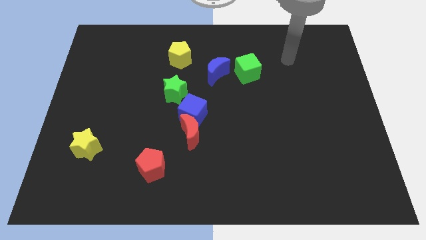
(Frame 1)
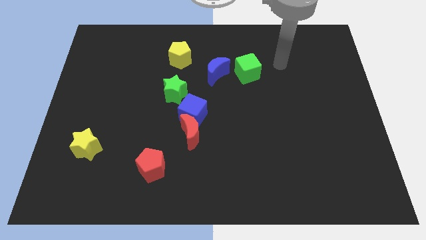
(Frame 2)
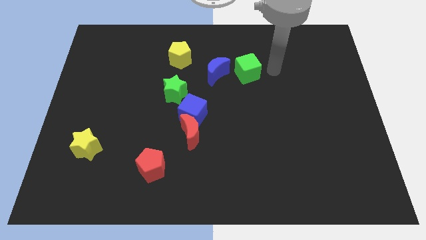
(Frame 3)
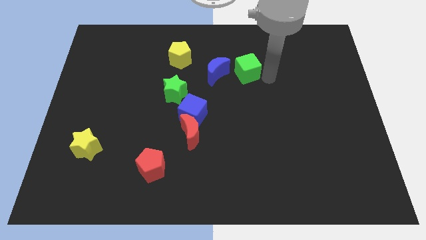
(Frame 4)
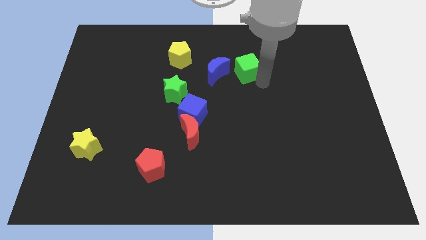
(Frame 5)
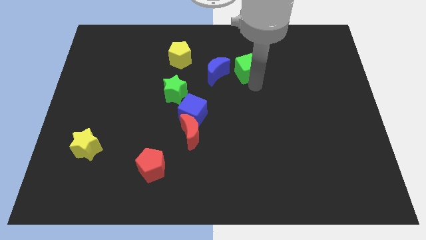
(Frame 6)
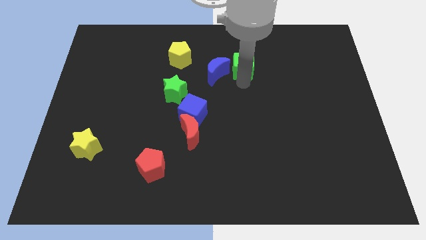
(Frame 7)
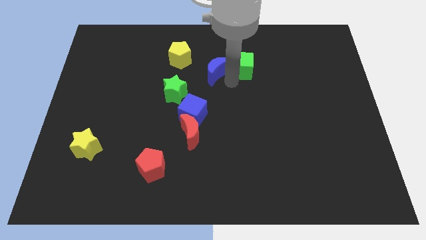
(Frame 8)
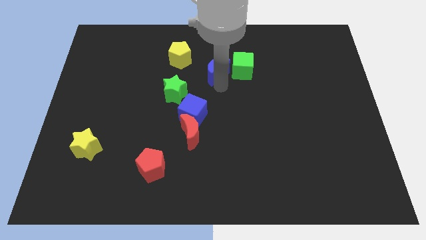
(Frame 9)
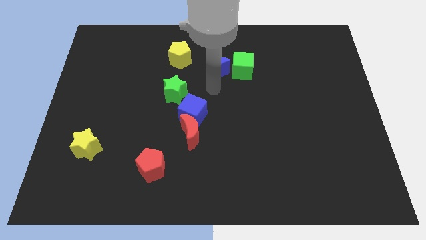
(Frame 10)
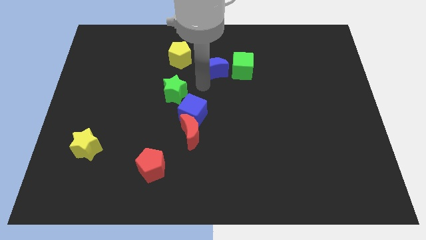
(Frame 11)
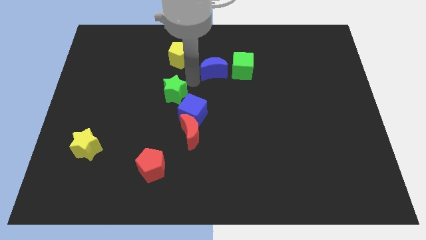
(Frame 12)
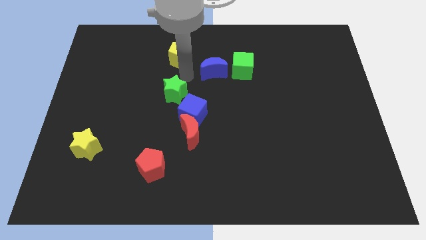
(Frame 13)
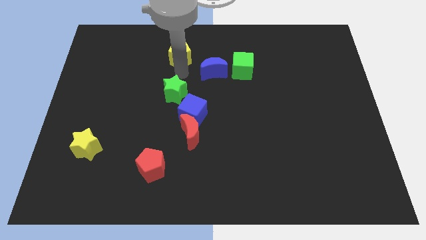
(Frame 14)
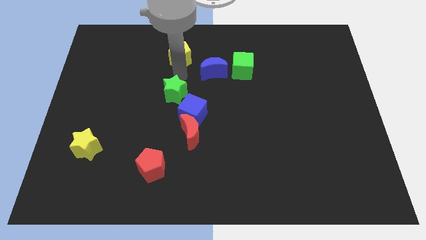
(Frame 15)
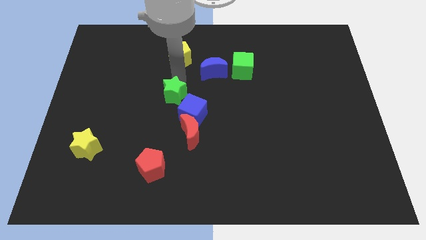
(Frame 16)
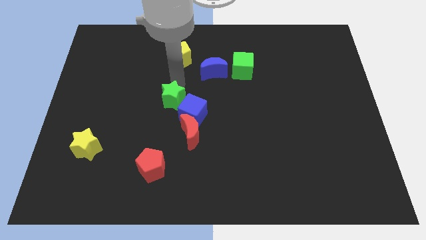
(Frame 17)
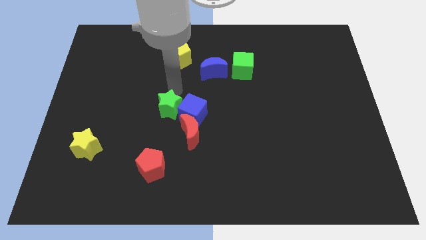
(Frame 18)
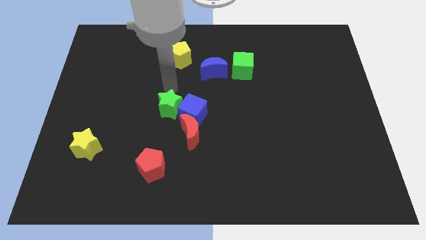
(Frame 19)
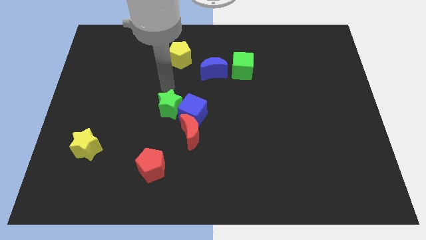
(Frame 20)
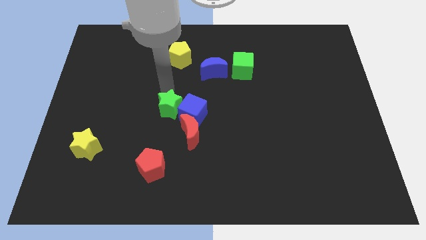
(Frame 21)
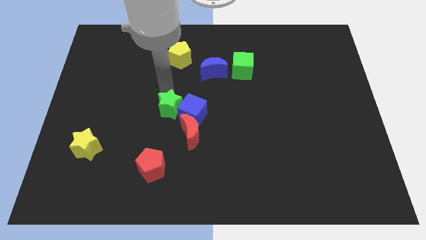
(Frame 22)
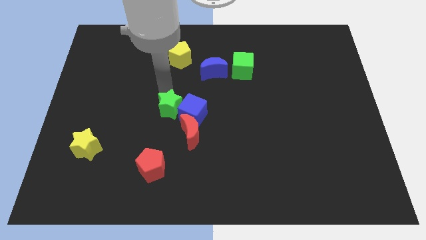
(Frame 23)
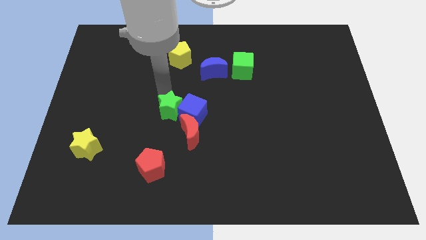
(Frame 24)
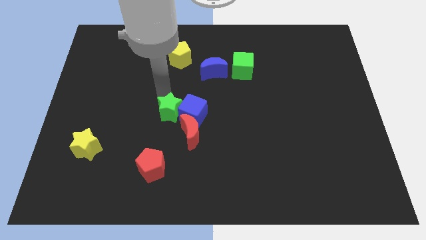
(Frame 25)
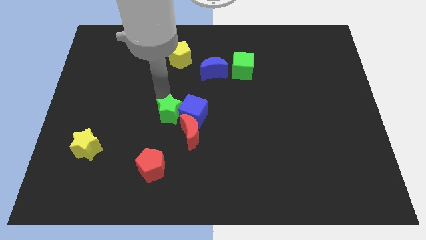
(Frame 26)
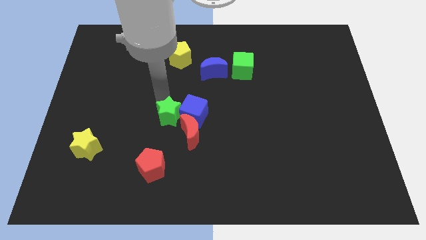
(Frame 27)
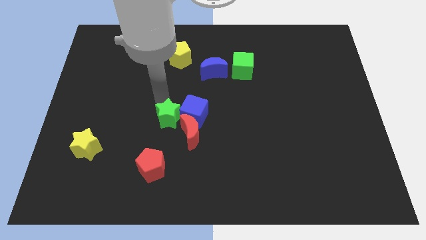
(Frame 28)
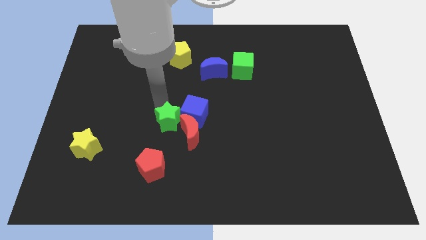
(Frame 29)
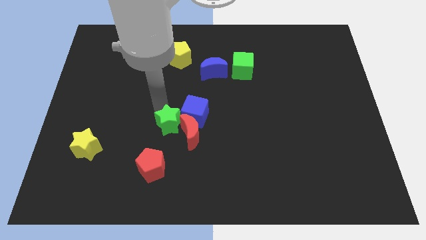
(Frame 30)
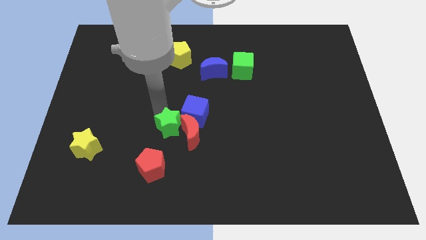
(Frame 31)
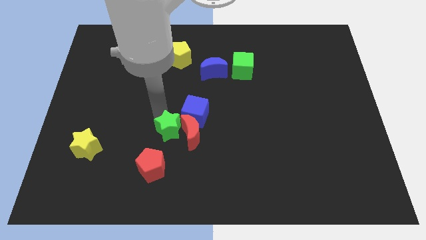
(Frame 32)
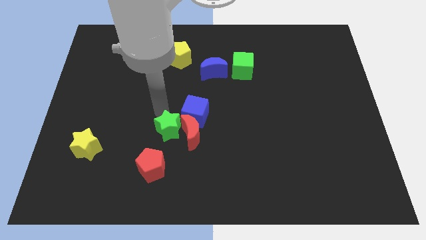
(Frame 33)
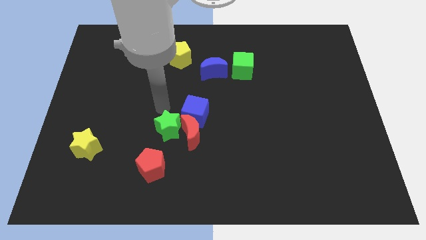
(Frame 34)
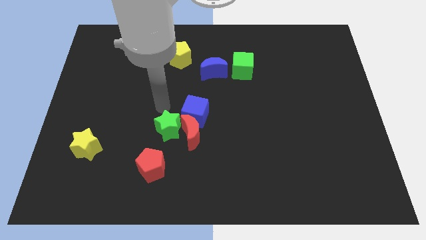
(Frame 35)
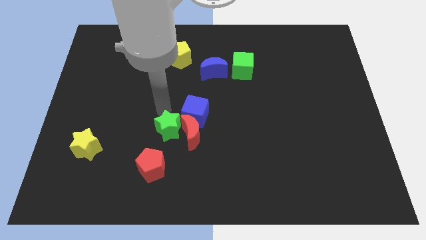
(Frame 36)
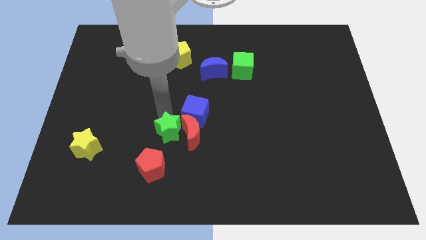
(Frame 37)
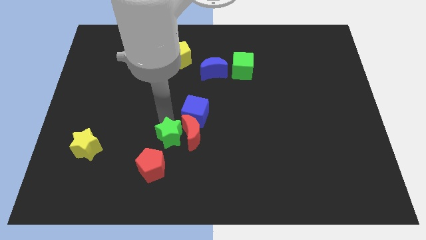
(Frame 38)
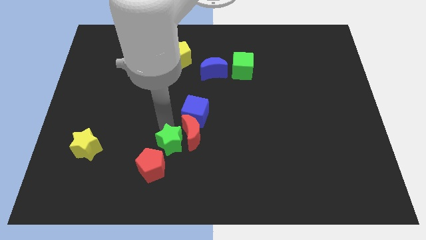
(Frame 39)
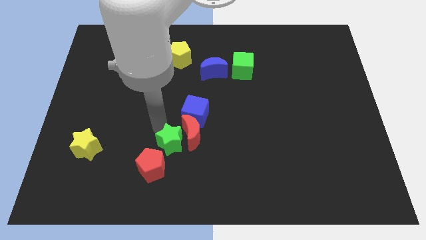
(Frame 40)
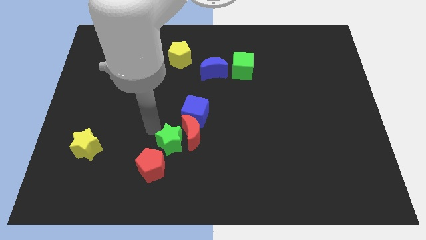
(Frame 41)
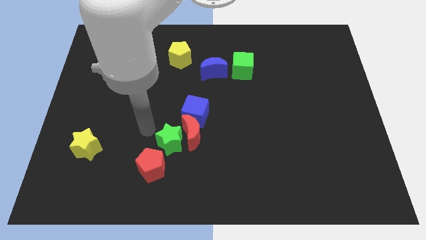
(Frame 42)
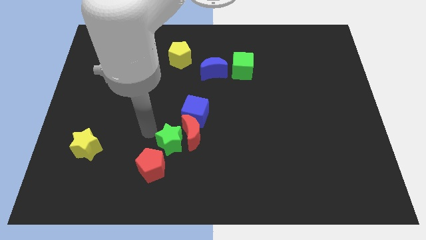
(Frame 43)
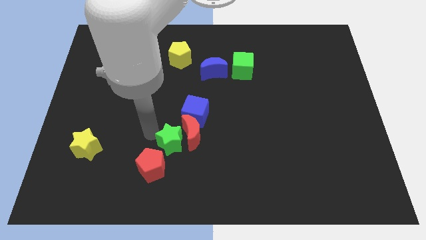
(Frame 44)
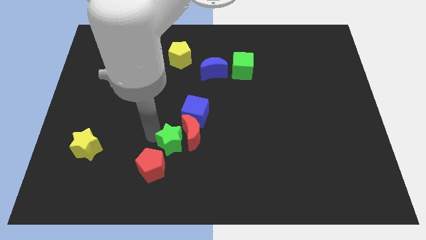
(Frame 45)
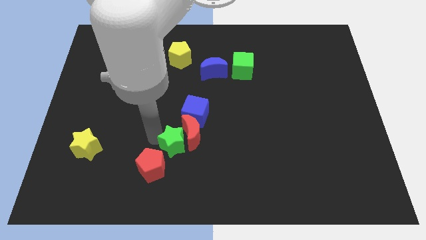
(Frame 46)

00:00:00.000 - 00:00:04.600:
push the green star below the blue cube

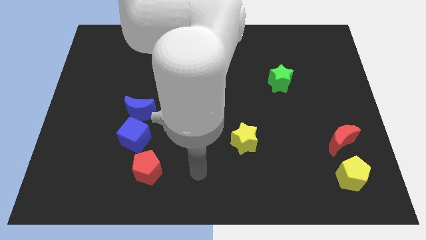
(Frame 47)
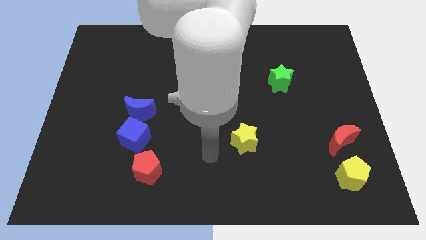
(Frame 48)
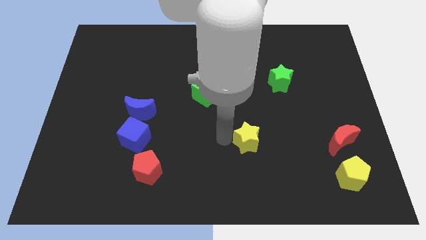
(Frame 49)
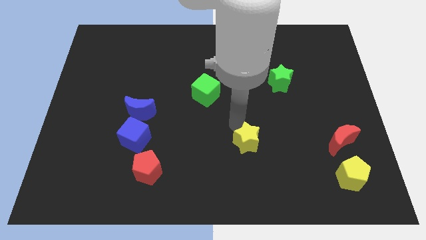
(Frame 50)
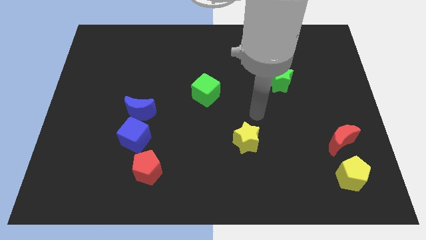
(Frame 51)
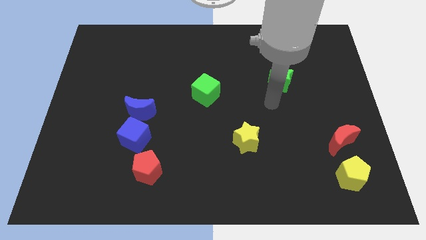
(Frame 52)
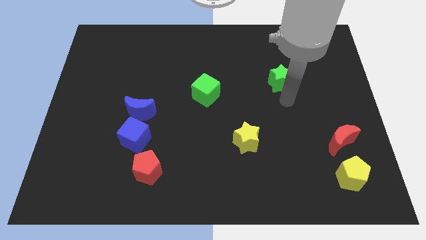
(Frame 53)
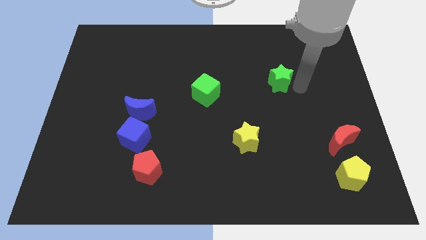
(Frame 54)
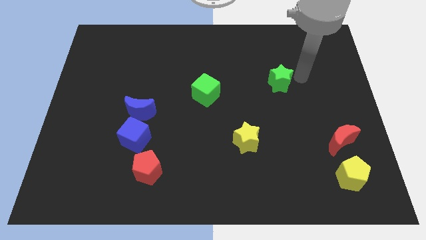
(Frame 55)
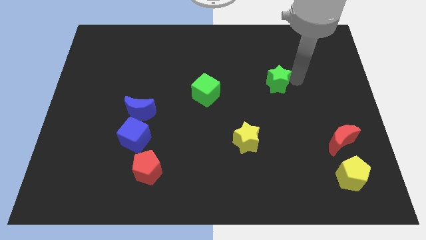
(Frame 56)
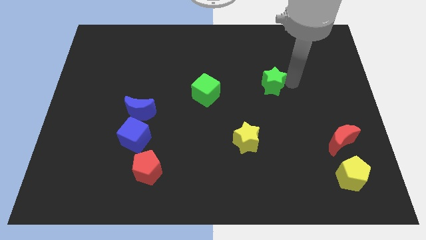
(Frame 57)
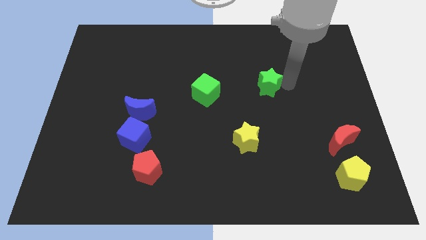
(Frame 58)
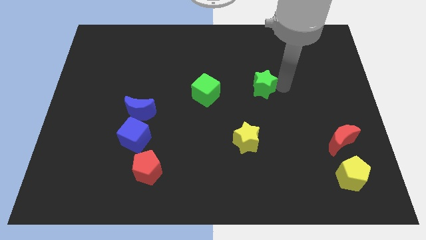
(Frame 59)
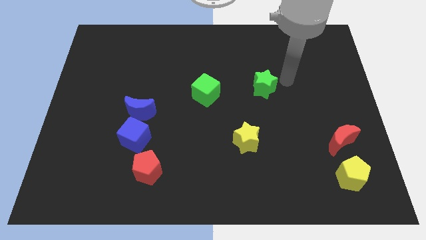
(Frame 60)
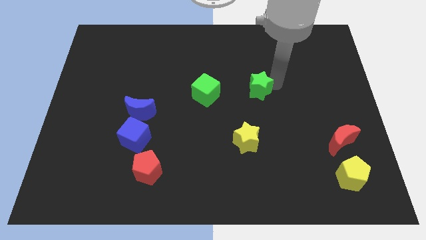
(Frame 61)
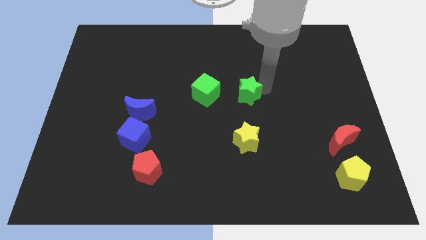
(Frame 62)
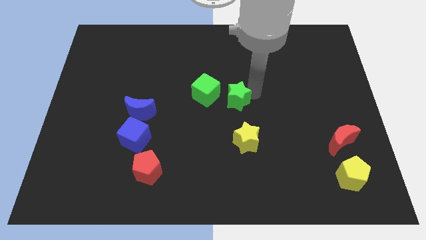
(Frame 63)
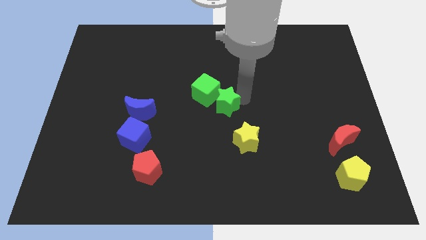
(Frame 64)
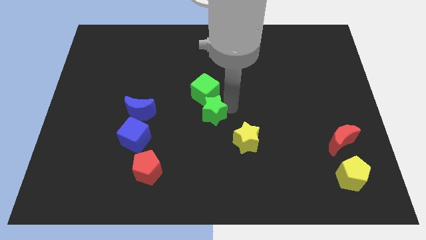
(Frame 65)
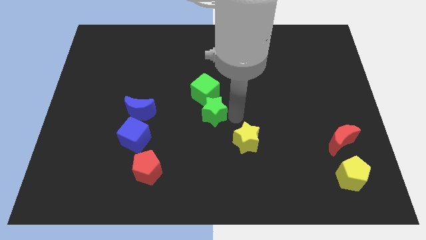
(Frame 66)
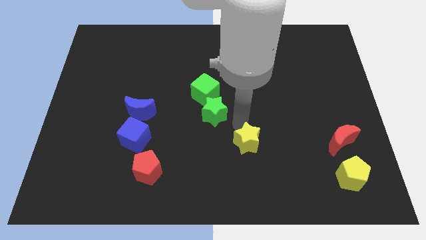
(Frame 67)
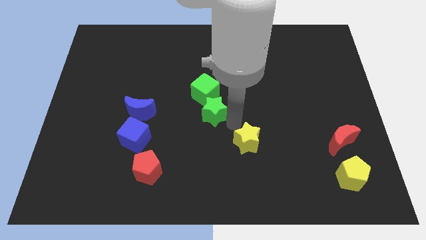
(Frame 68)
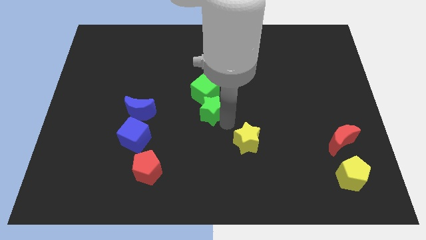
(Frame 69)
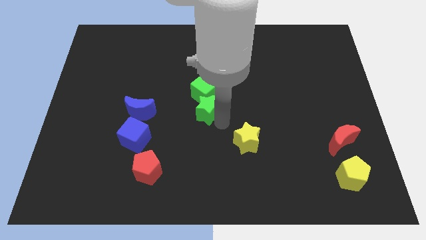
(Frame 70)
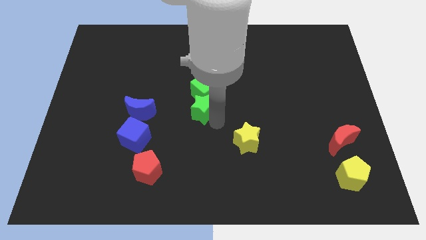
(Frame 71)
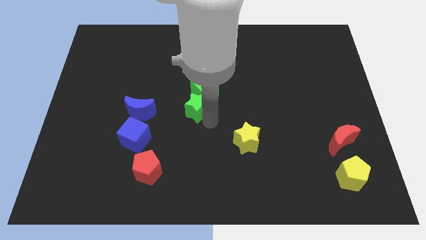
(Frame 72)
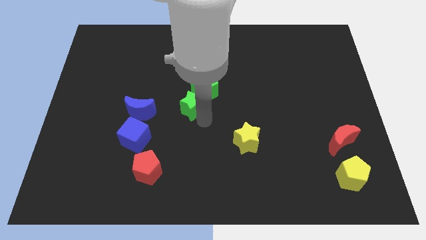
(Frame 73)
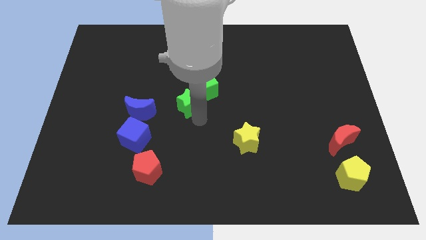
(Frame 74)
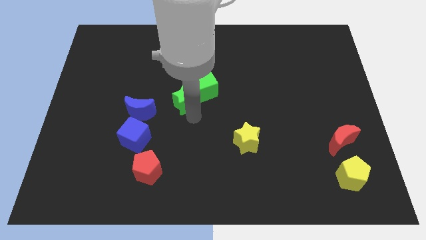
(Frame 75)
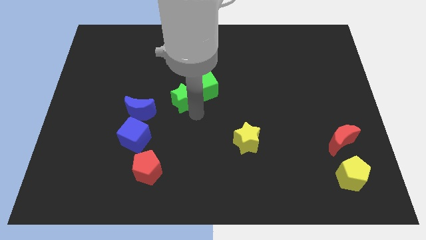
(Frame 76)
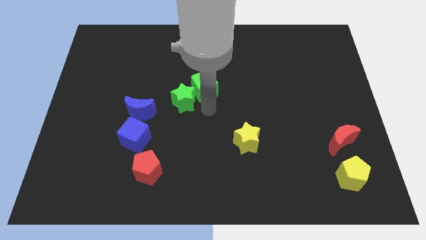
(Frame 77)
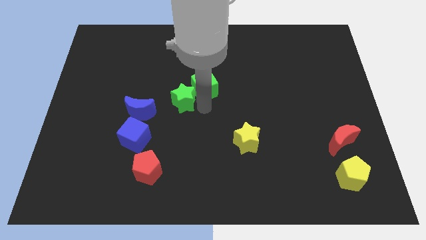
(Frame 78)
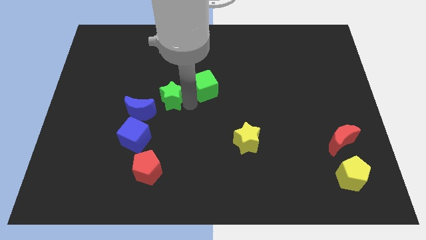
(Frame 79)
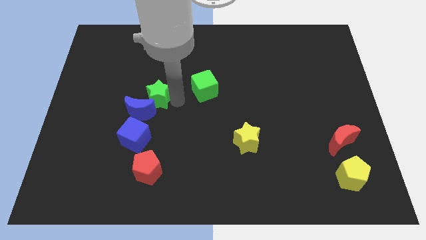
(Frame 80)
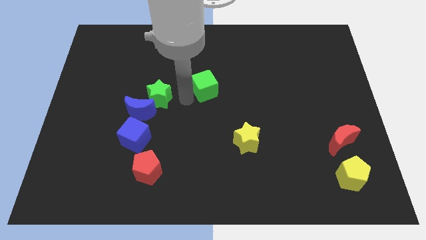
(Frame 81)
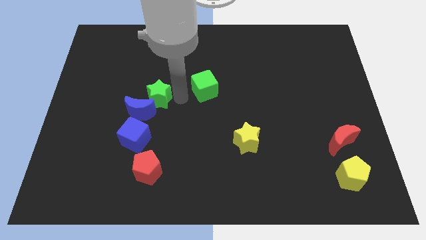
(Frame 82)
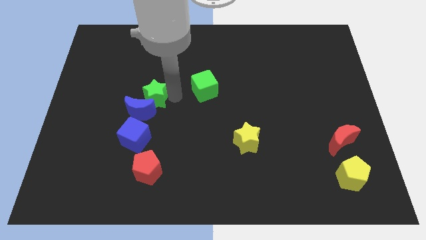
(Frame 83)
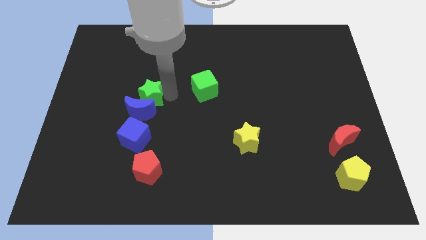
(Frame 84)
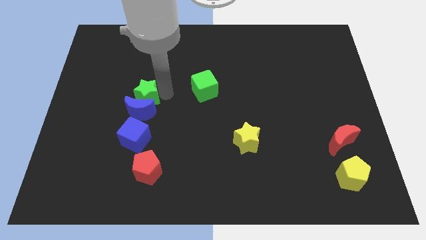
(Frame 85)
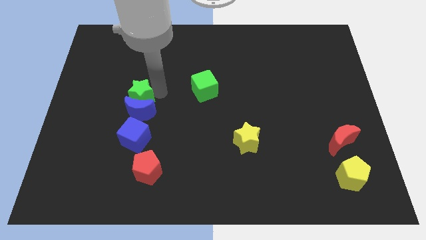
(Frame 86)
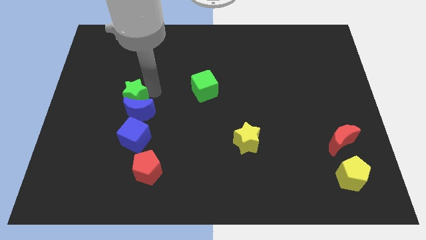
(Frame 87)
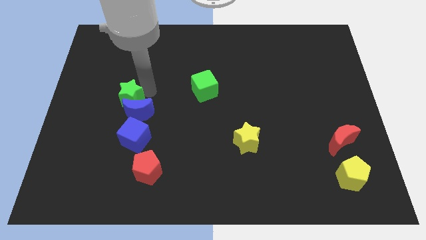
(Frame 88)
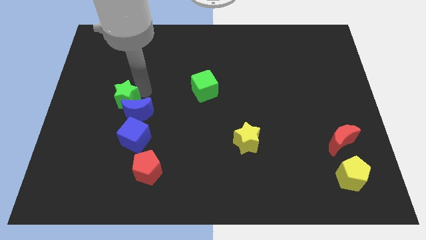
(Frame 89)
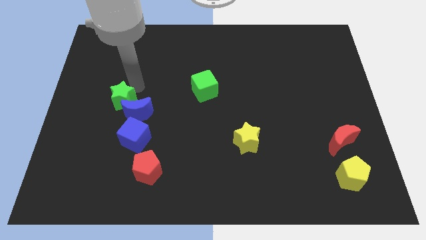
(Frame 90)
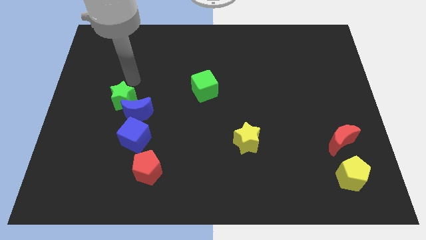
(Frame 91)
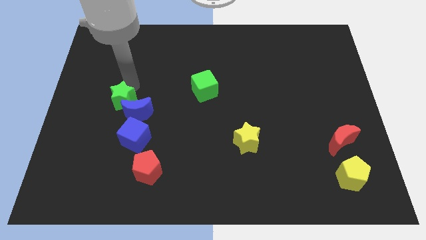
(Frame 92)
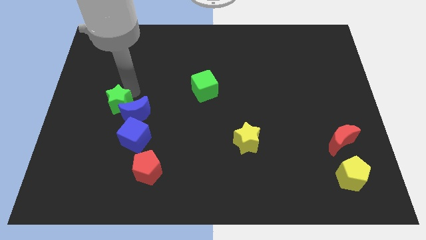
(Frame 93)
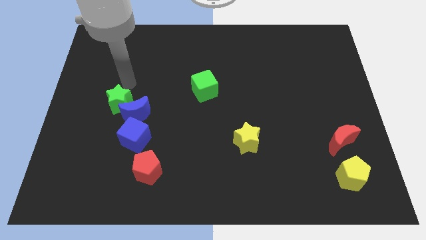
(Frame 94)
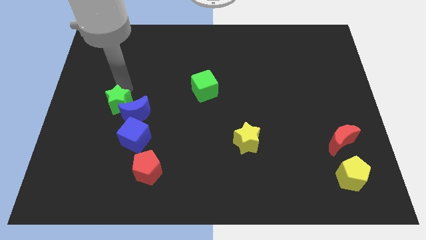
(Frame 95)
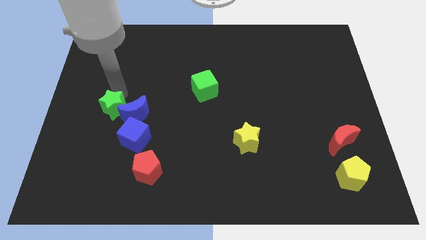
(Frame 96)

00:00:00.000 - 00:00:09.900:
push the green star to the bottom left side of the blue moon
